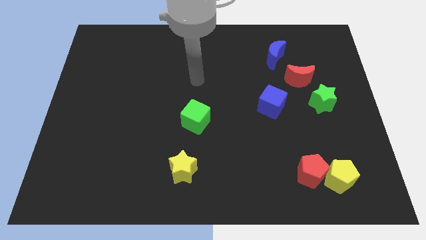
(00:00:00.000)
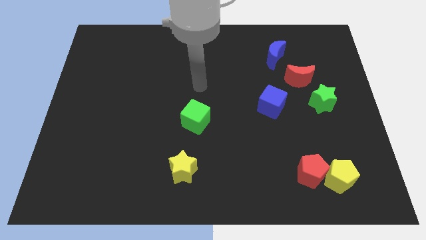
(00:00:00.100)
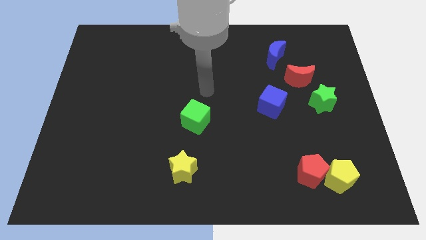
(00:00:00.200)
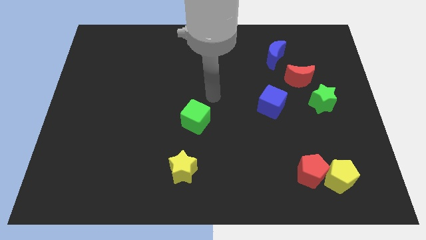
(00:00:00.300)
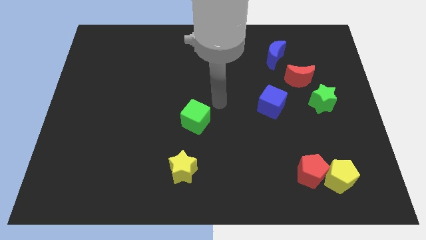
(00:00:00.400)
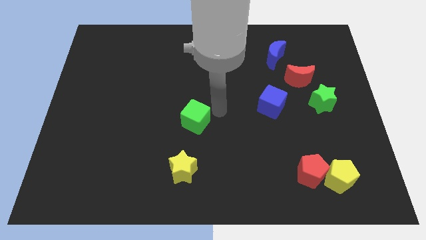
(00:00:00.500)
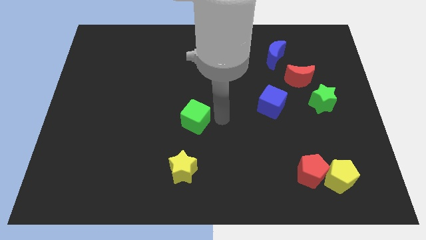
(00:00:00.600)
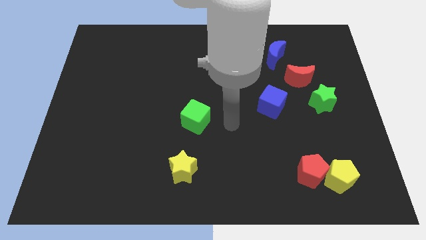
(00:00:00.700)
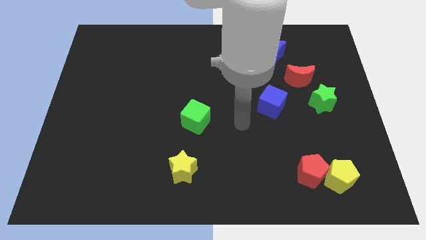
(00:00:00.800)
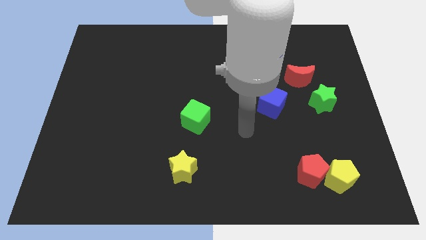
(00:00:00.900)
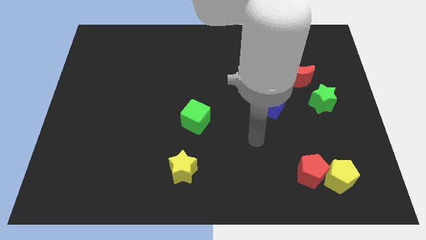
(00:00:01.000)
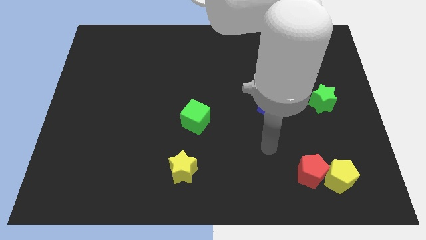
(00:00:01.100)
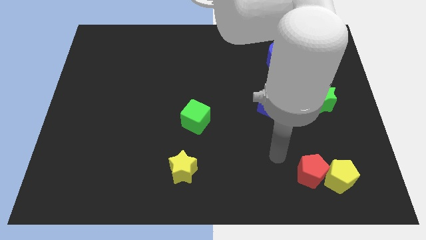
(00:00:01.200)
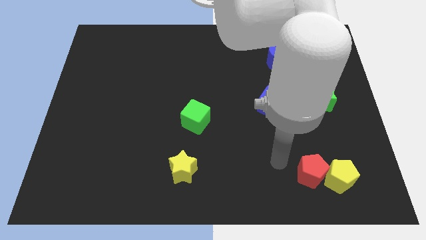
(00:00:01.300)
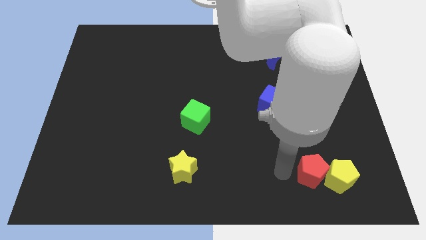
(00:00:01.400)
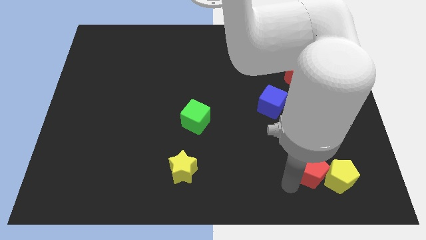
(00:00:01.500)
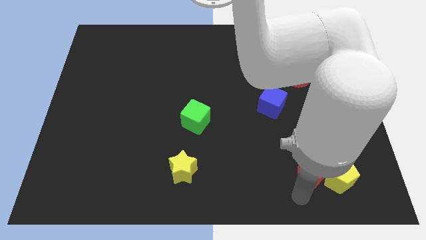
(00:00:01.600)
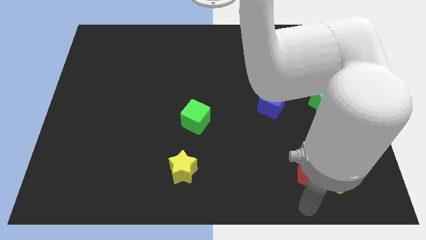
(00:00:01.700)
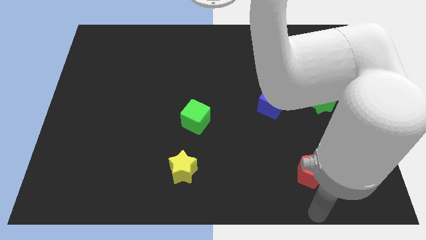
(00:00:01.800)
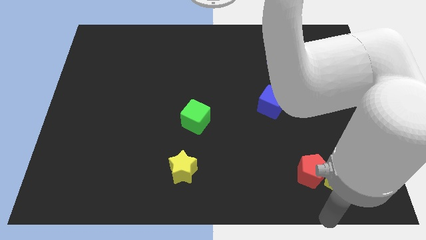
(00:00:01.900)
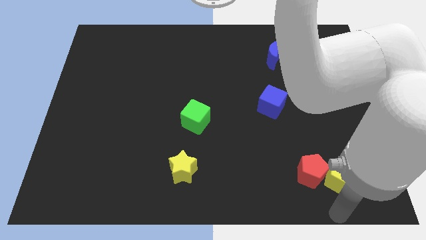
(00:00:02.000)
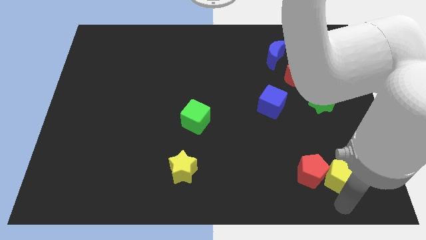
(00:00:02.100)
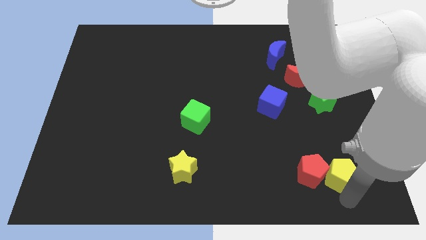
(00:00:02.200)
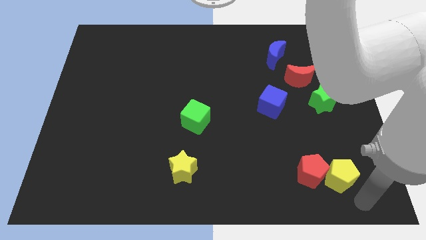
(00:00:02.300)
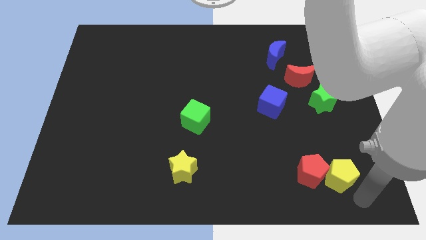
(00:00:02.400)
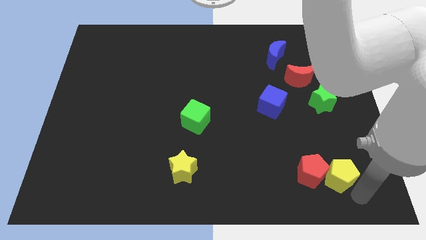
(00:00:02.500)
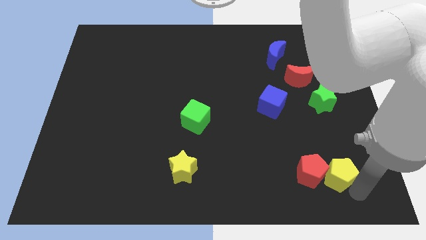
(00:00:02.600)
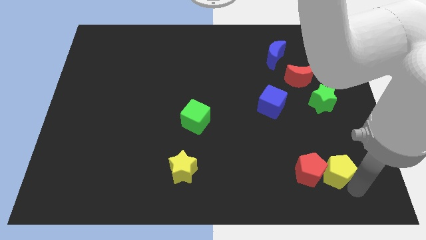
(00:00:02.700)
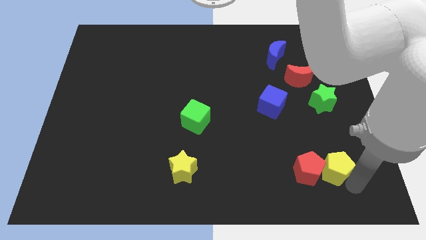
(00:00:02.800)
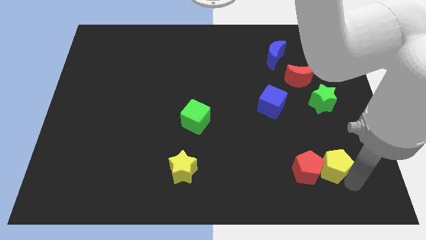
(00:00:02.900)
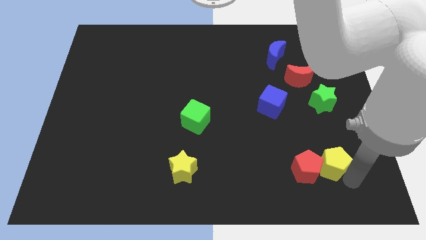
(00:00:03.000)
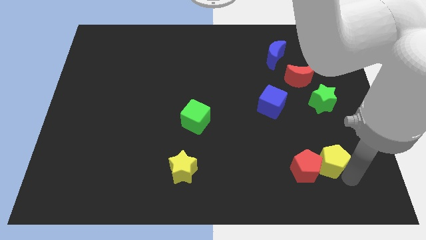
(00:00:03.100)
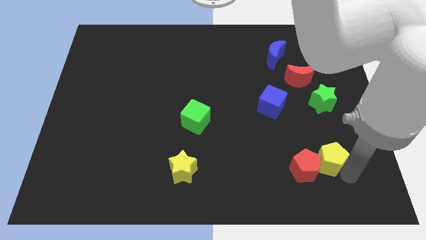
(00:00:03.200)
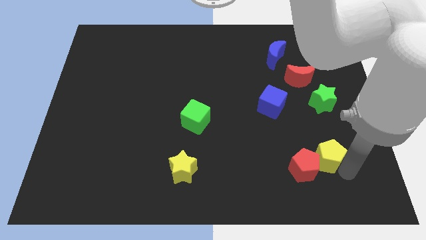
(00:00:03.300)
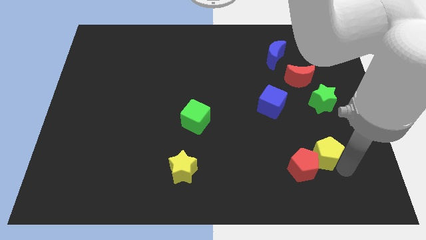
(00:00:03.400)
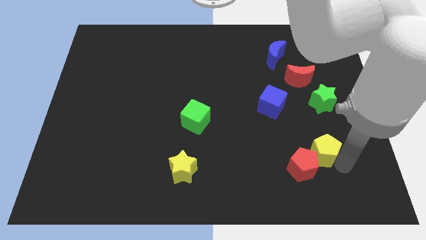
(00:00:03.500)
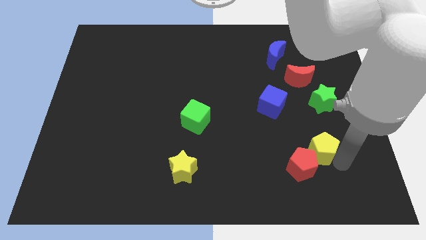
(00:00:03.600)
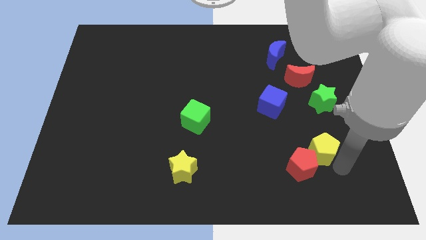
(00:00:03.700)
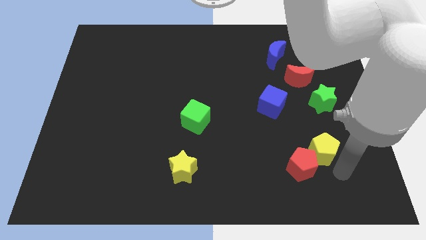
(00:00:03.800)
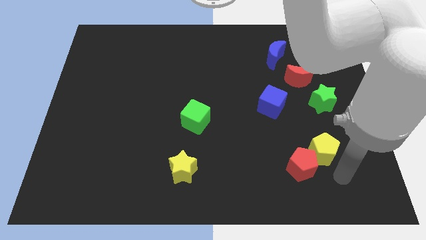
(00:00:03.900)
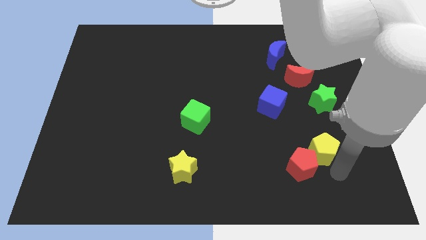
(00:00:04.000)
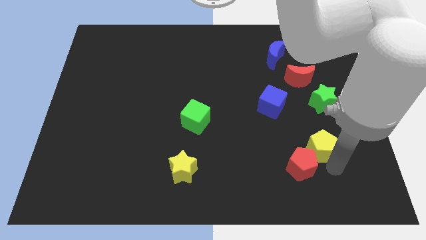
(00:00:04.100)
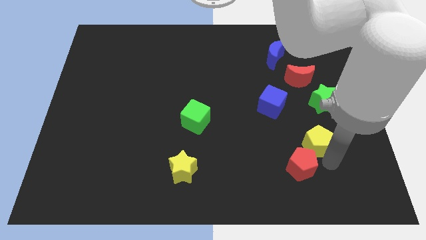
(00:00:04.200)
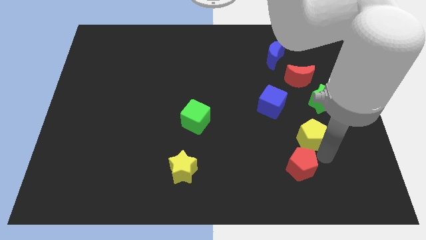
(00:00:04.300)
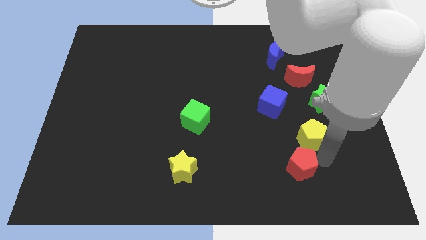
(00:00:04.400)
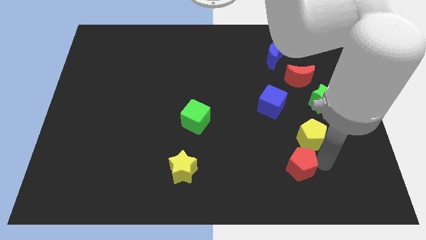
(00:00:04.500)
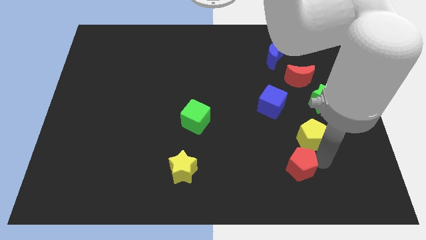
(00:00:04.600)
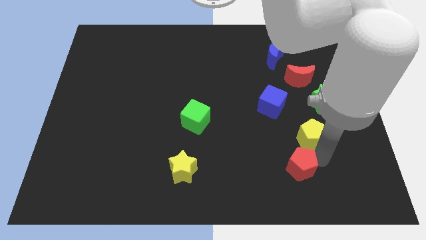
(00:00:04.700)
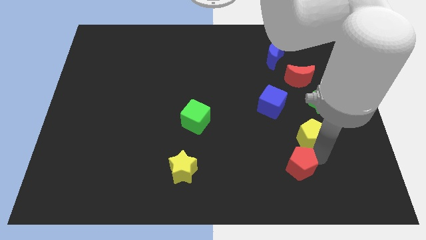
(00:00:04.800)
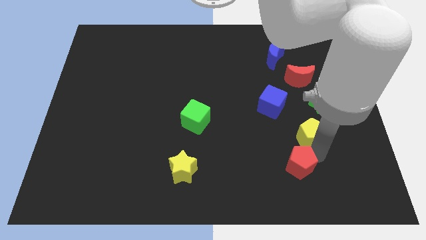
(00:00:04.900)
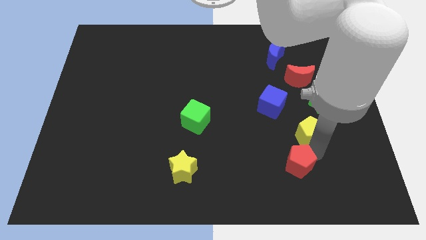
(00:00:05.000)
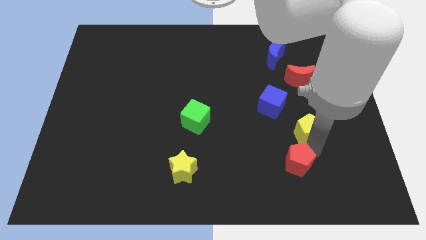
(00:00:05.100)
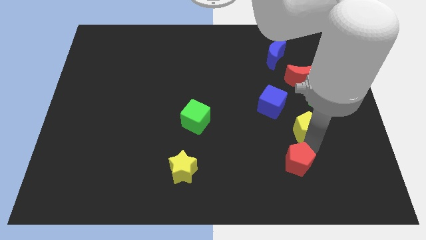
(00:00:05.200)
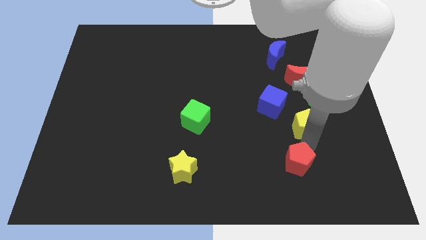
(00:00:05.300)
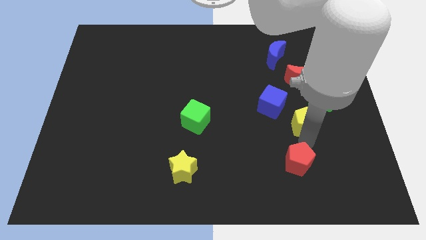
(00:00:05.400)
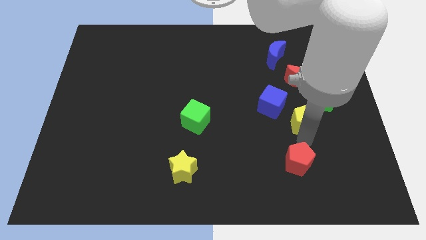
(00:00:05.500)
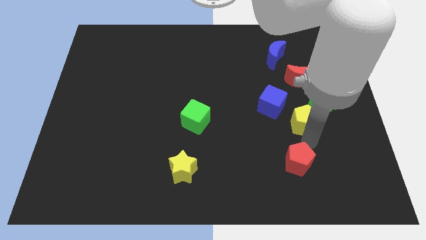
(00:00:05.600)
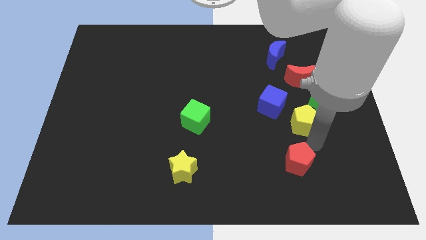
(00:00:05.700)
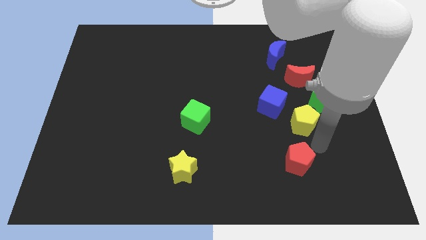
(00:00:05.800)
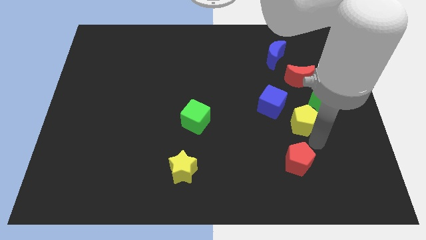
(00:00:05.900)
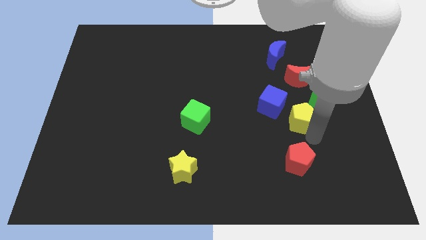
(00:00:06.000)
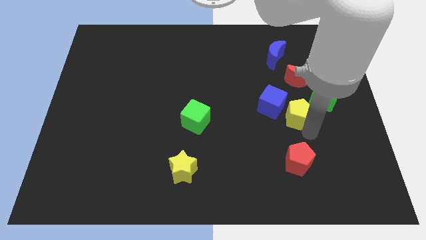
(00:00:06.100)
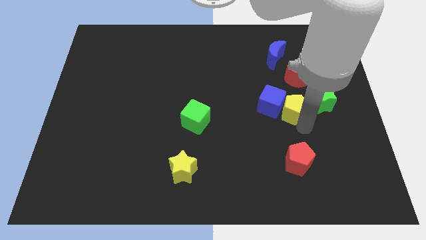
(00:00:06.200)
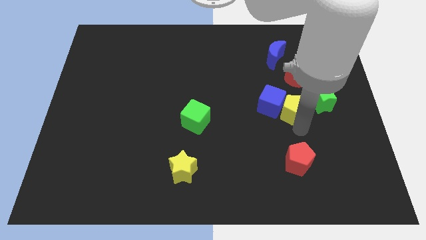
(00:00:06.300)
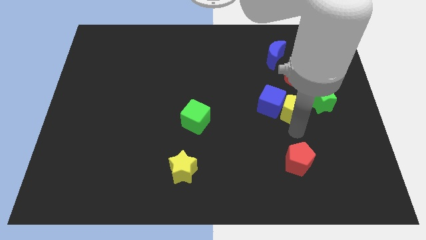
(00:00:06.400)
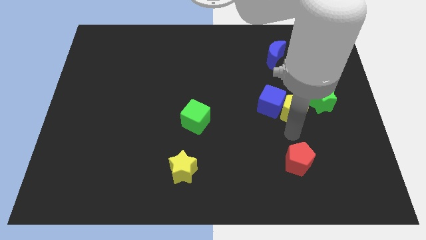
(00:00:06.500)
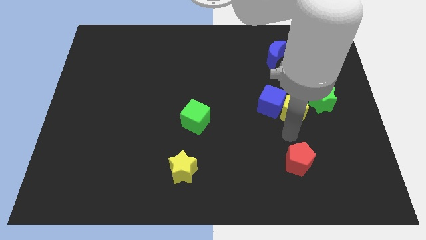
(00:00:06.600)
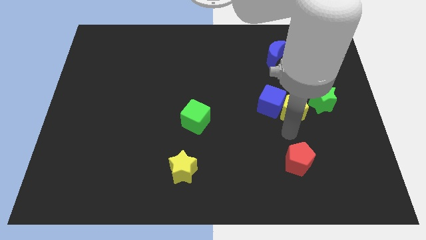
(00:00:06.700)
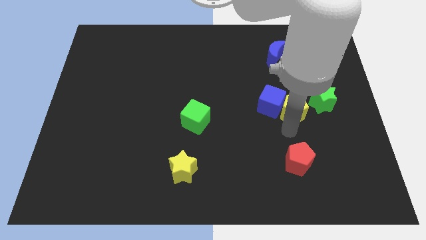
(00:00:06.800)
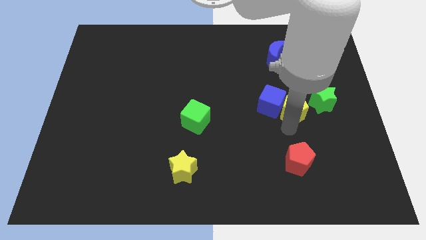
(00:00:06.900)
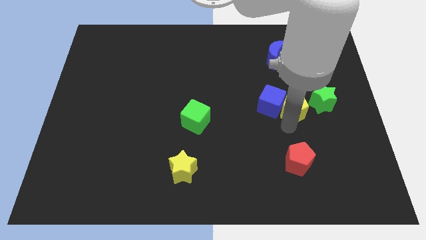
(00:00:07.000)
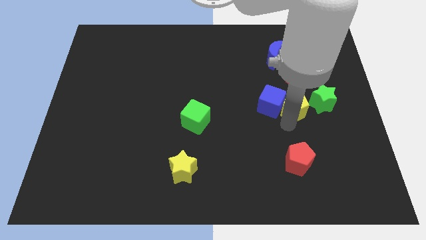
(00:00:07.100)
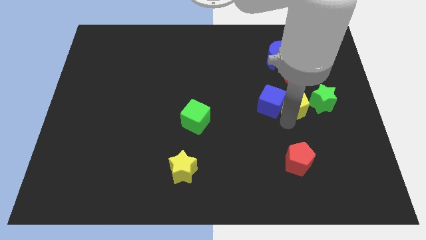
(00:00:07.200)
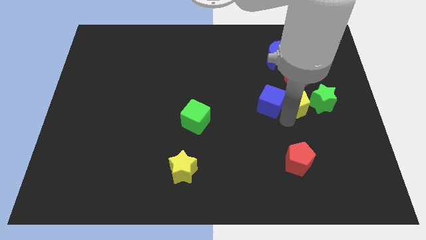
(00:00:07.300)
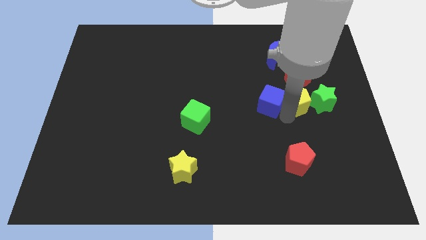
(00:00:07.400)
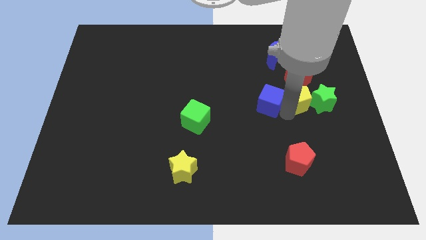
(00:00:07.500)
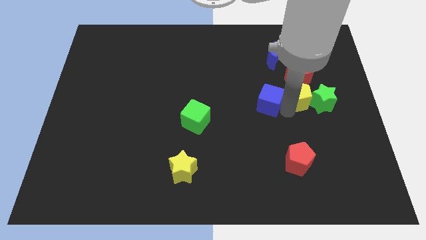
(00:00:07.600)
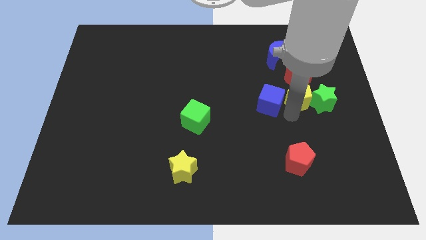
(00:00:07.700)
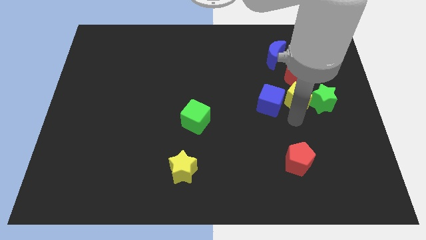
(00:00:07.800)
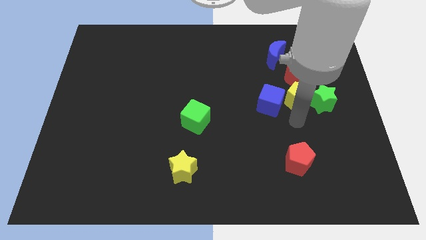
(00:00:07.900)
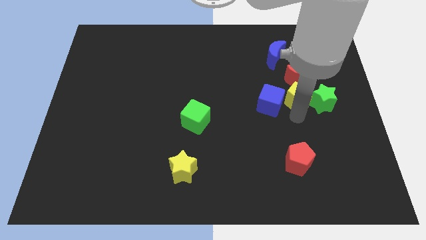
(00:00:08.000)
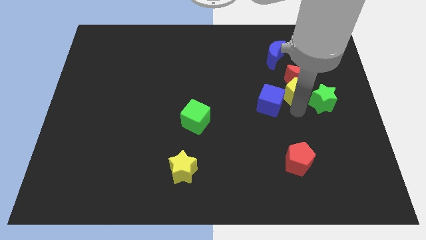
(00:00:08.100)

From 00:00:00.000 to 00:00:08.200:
push the yellow pentagon close to the red moon
